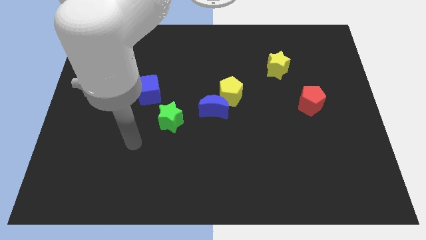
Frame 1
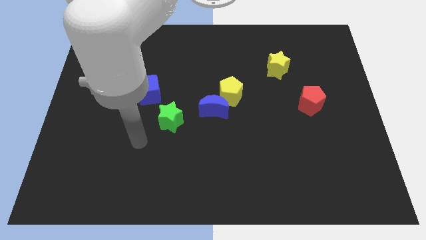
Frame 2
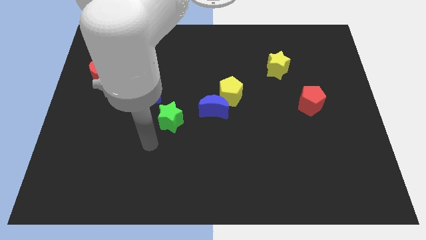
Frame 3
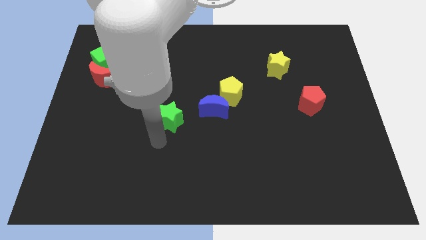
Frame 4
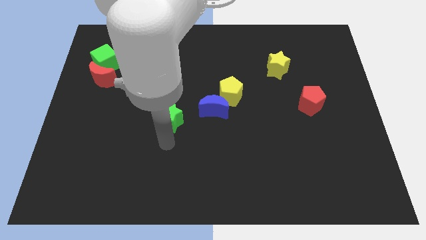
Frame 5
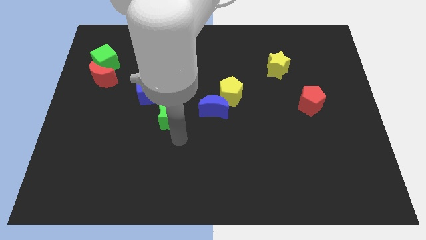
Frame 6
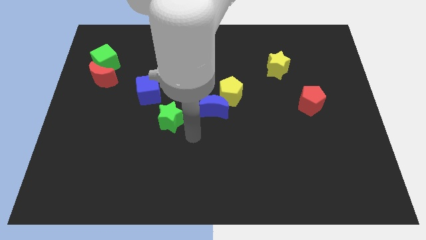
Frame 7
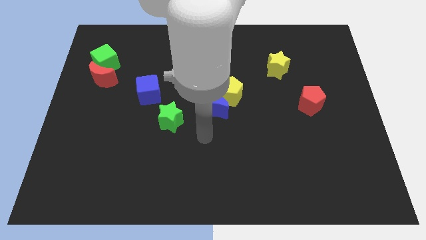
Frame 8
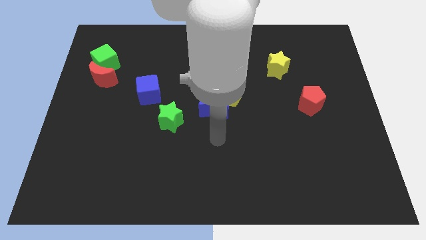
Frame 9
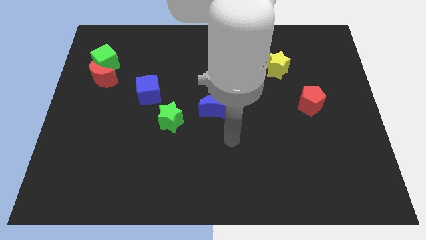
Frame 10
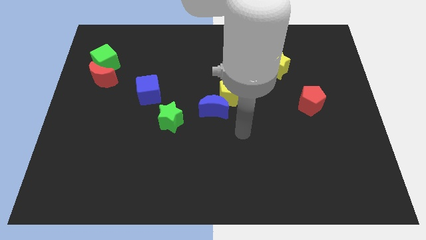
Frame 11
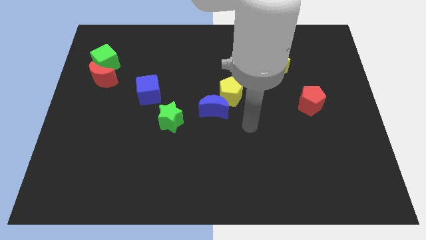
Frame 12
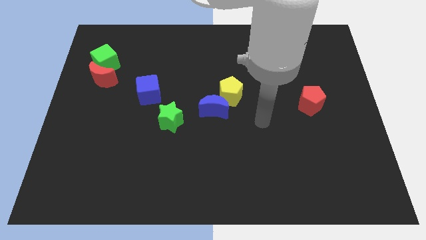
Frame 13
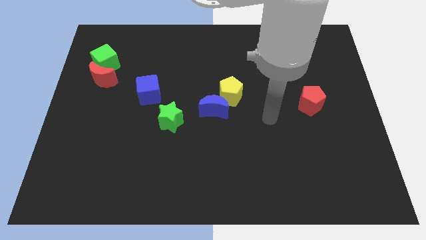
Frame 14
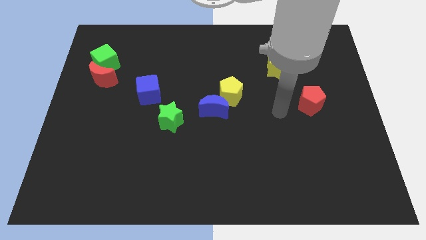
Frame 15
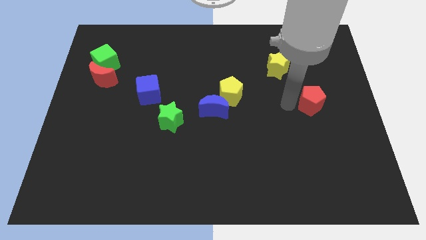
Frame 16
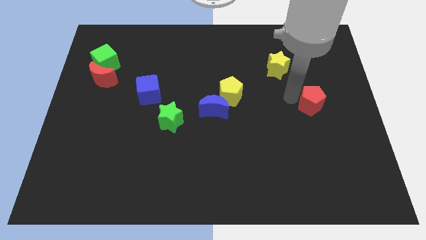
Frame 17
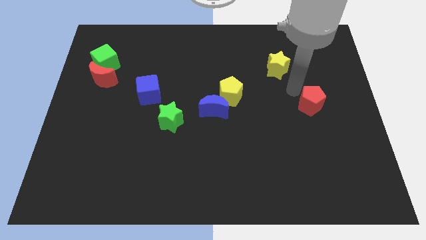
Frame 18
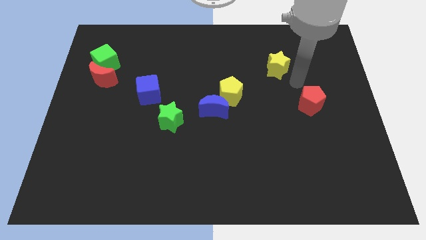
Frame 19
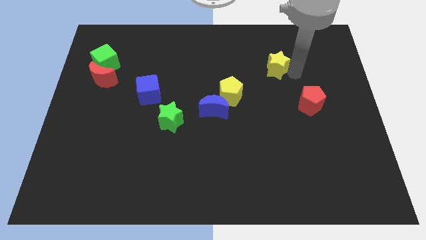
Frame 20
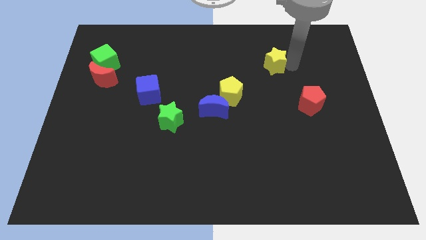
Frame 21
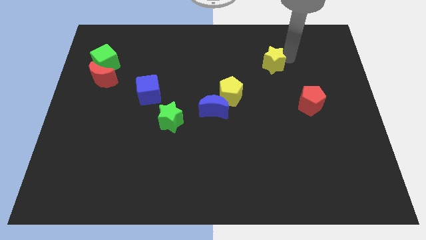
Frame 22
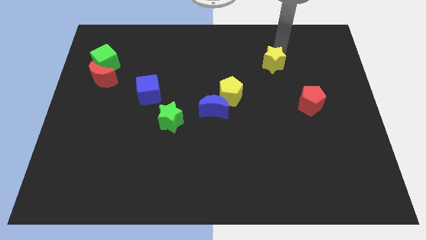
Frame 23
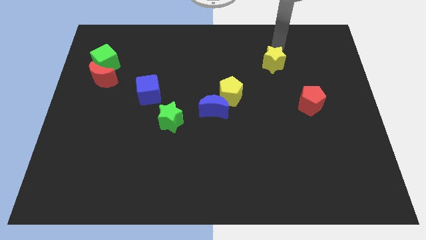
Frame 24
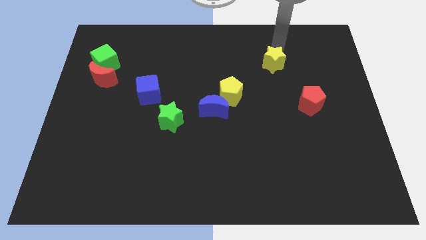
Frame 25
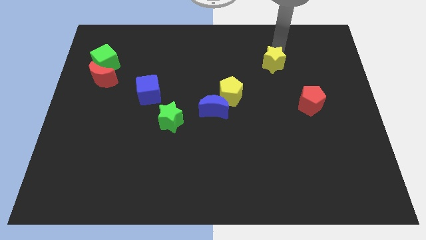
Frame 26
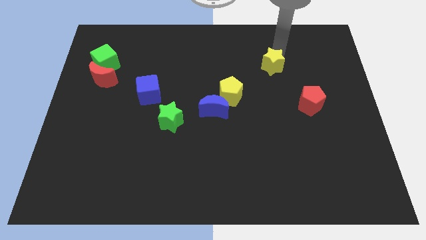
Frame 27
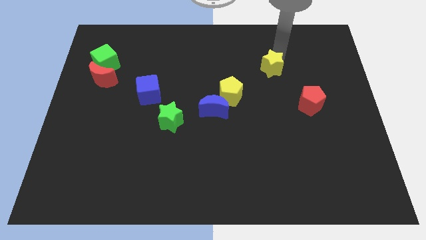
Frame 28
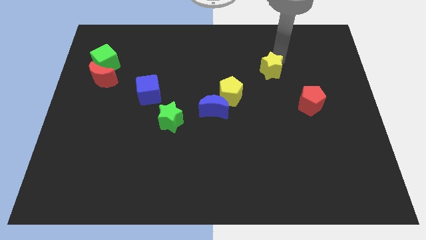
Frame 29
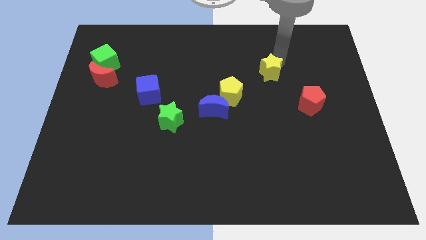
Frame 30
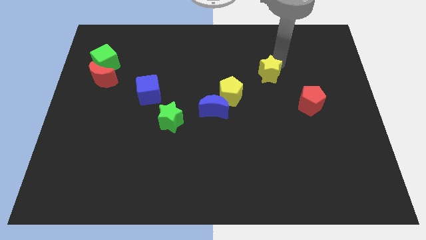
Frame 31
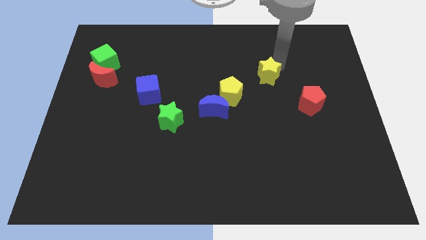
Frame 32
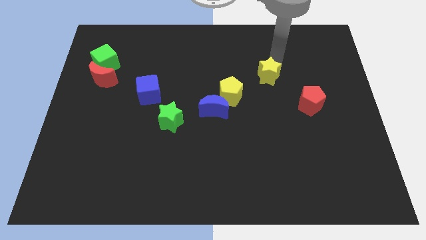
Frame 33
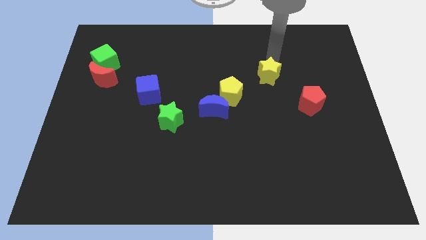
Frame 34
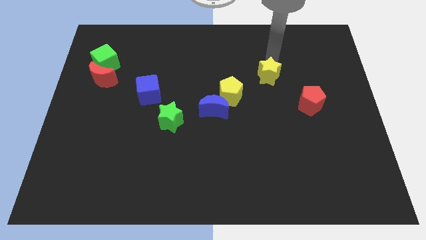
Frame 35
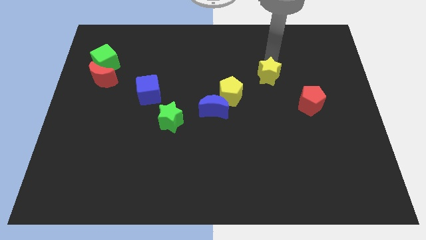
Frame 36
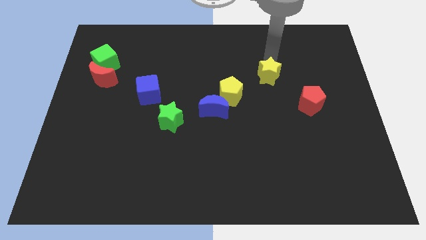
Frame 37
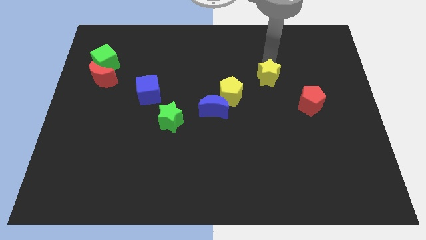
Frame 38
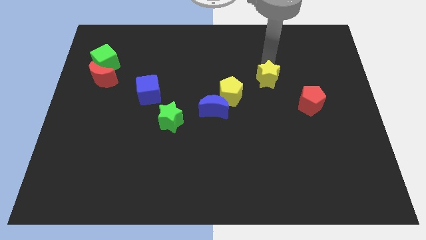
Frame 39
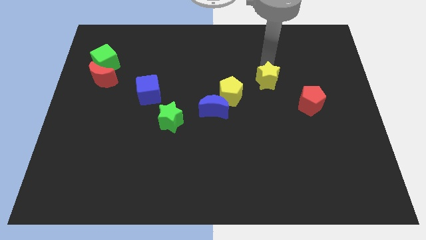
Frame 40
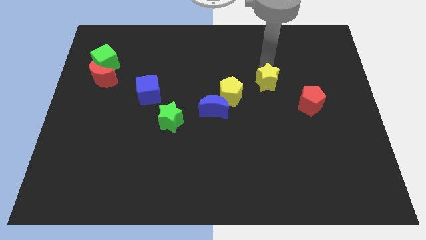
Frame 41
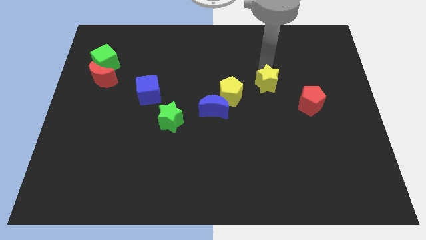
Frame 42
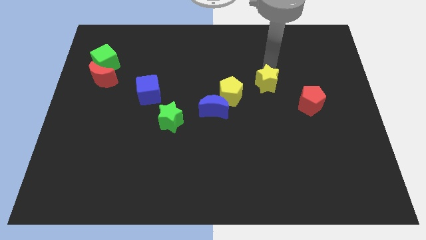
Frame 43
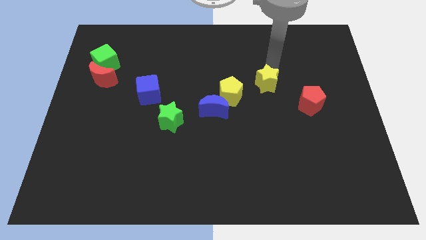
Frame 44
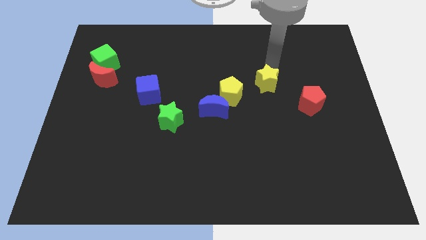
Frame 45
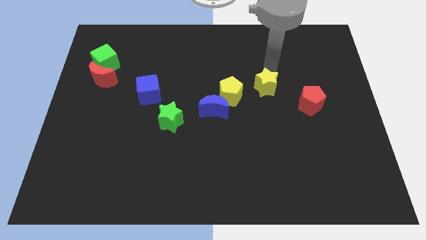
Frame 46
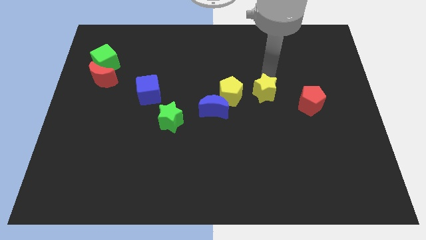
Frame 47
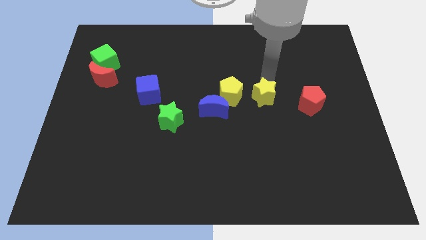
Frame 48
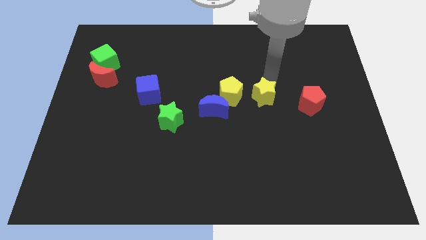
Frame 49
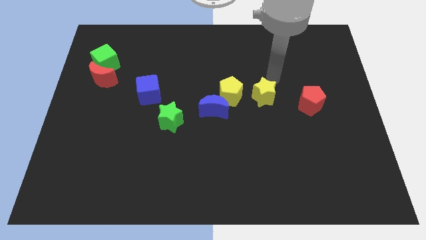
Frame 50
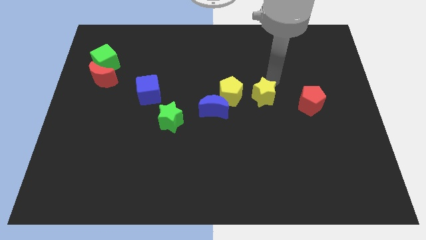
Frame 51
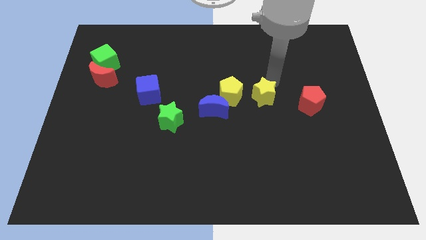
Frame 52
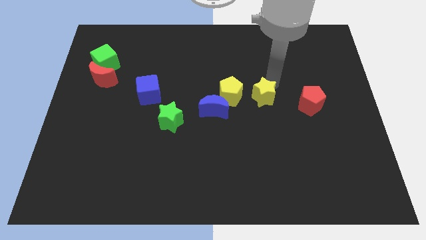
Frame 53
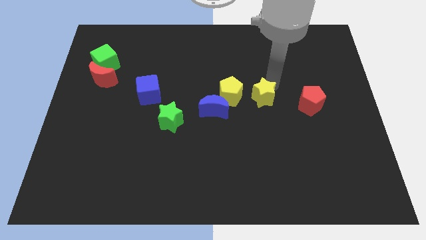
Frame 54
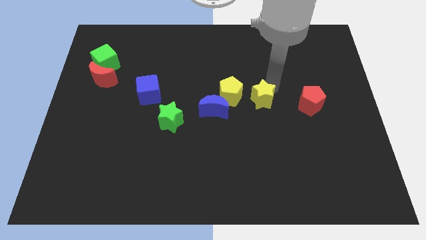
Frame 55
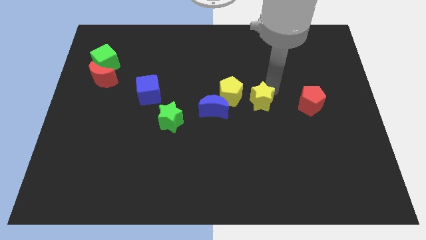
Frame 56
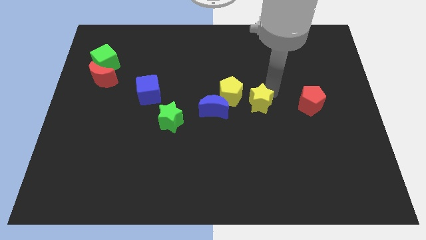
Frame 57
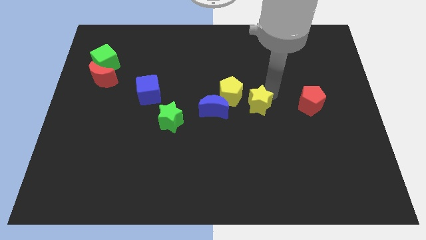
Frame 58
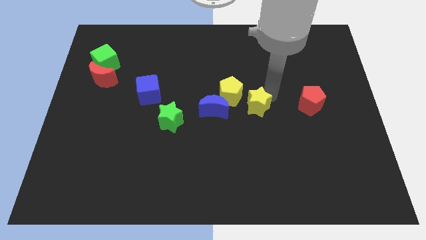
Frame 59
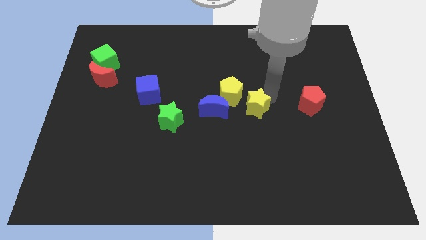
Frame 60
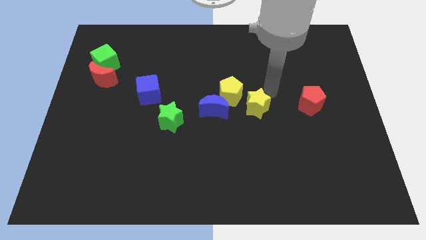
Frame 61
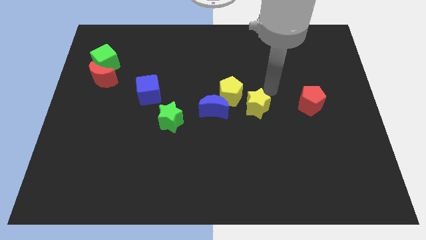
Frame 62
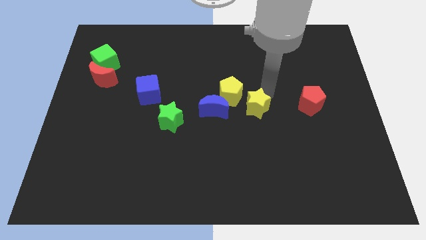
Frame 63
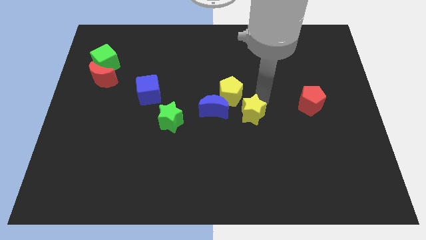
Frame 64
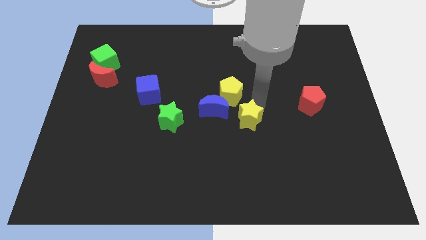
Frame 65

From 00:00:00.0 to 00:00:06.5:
push the yellow star to the bottom right side of the blue moon

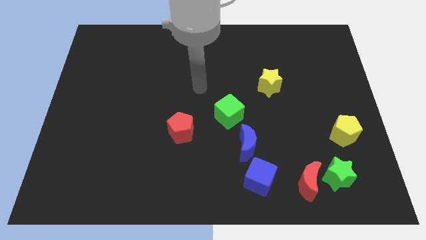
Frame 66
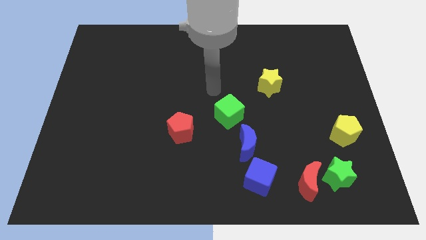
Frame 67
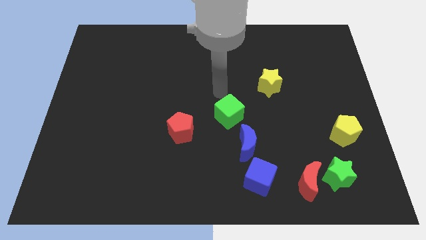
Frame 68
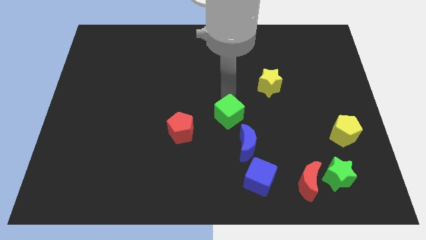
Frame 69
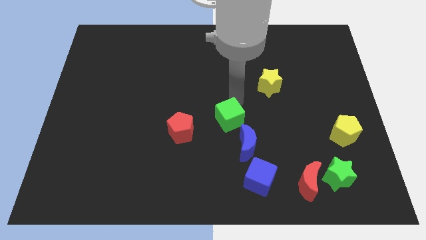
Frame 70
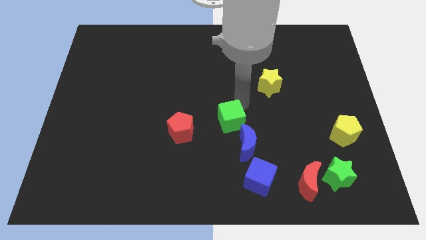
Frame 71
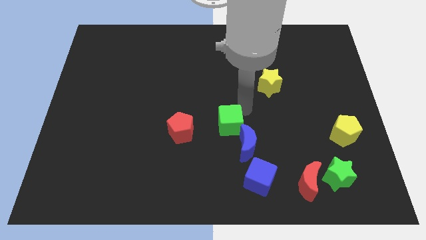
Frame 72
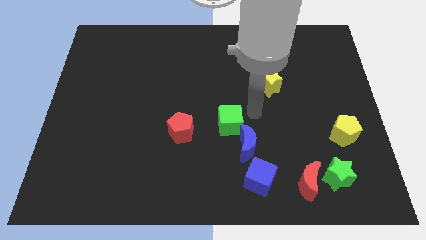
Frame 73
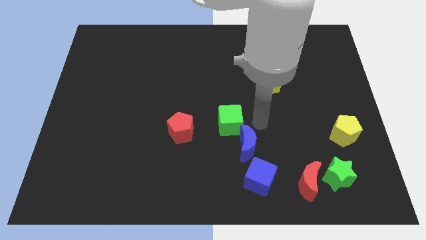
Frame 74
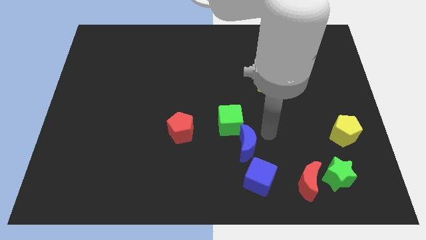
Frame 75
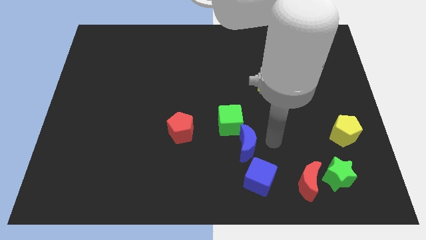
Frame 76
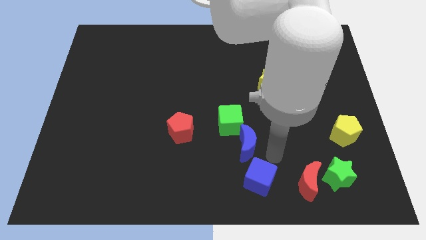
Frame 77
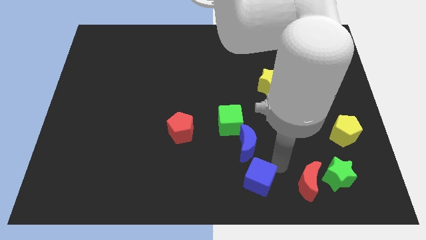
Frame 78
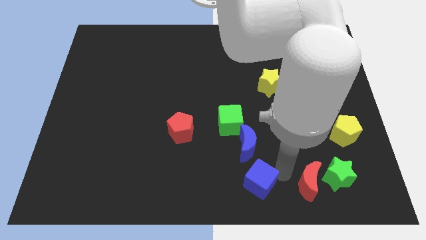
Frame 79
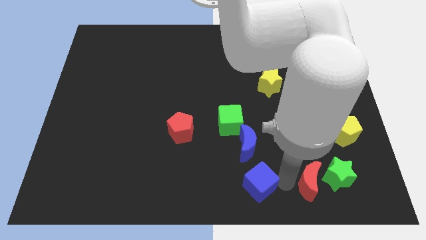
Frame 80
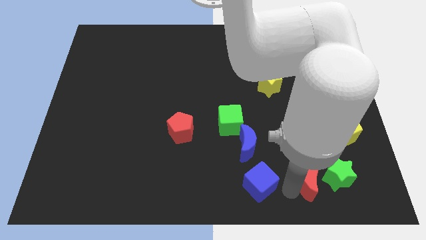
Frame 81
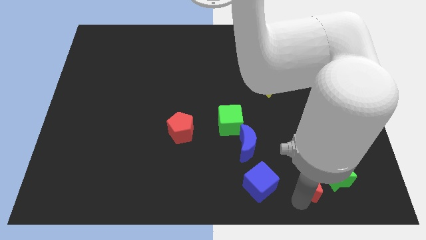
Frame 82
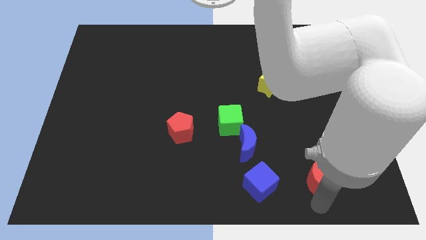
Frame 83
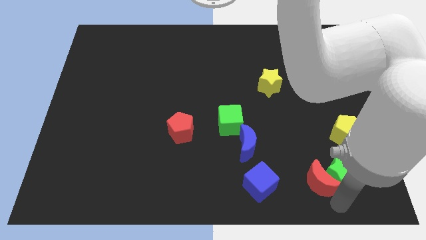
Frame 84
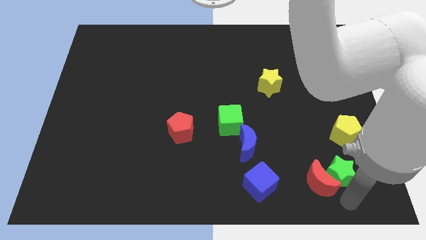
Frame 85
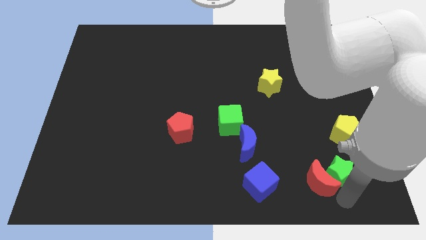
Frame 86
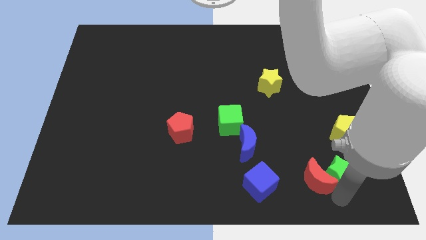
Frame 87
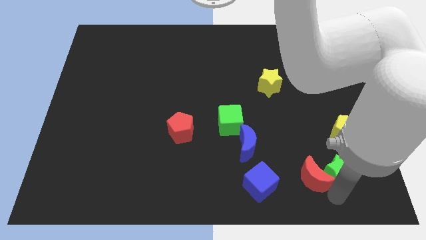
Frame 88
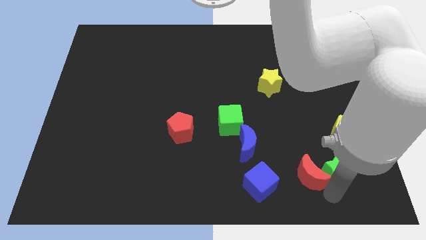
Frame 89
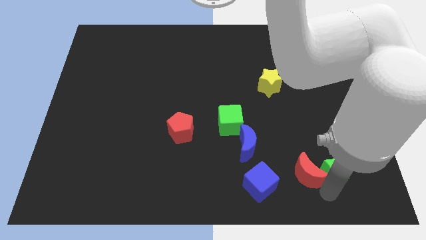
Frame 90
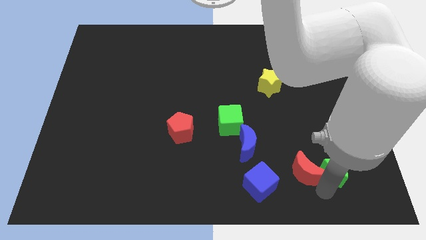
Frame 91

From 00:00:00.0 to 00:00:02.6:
slide the red moon to the top right of the blue cube
